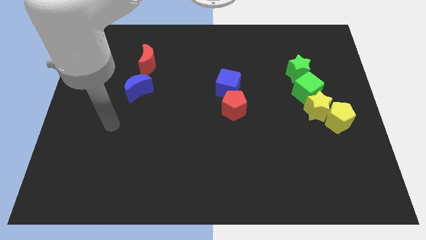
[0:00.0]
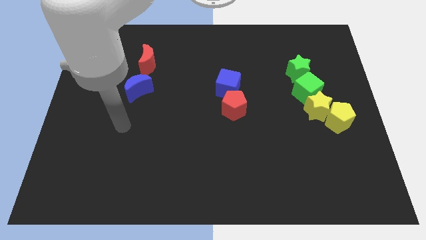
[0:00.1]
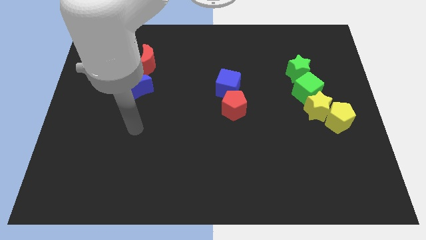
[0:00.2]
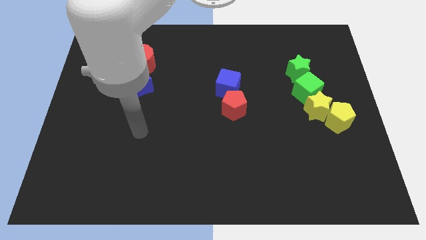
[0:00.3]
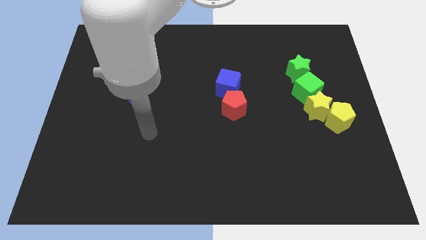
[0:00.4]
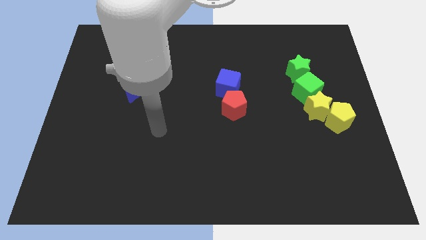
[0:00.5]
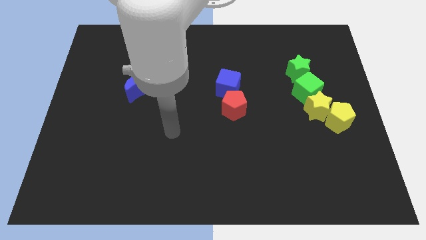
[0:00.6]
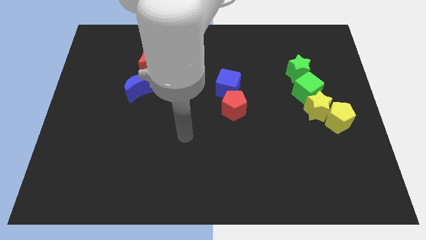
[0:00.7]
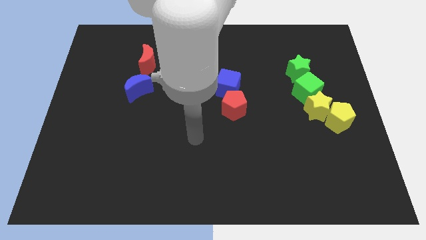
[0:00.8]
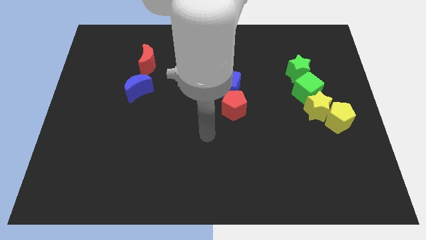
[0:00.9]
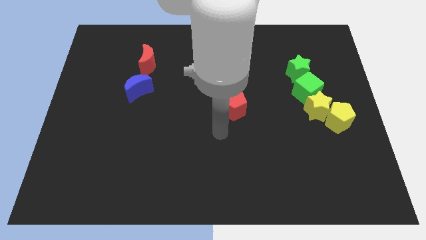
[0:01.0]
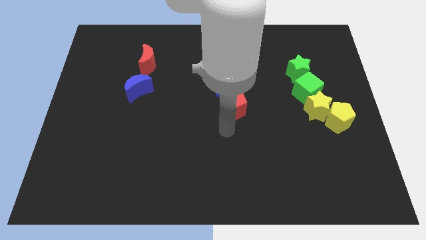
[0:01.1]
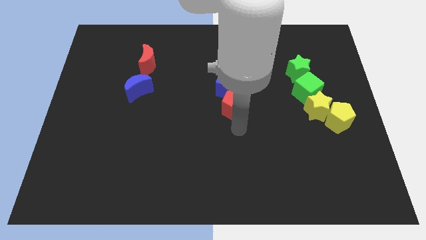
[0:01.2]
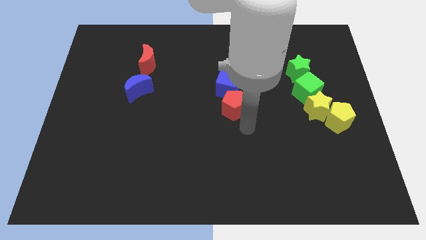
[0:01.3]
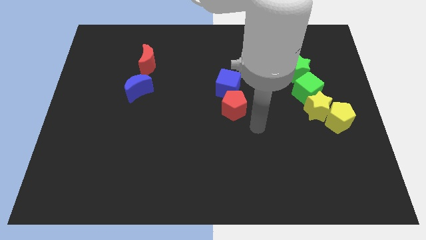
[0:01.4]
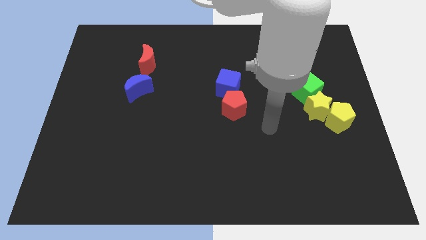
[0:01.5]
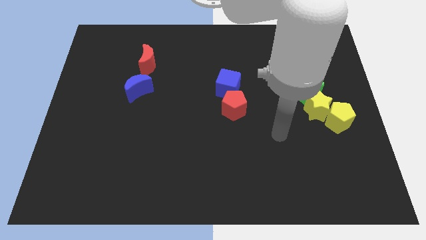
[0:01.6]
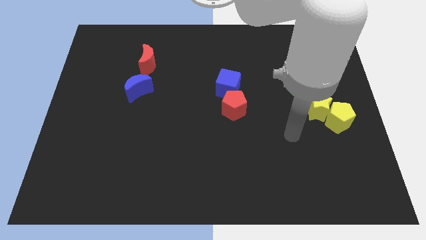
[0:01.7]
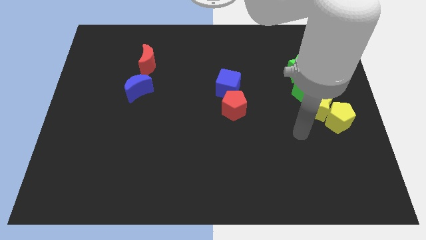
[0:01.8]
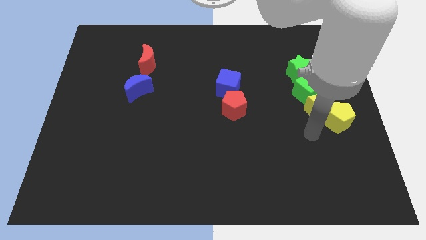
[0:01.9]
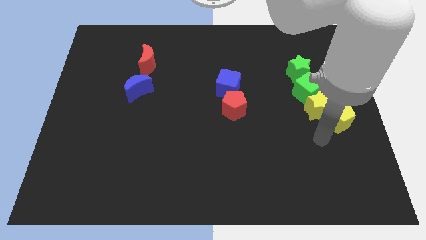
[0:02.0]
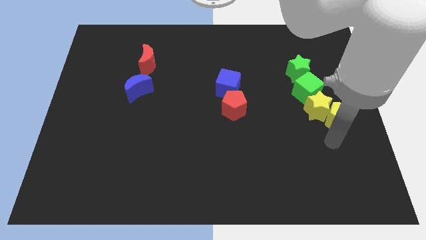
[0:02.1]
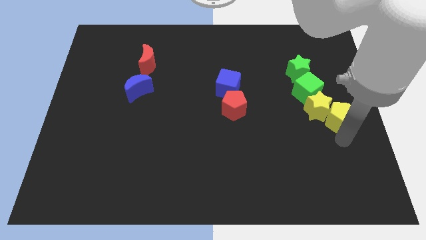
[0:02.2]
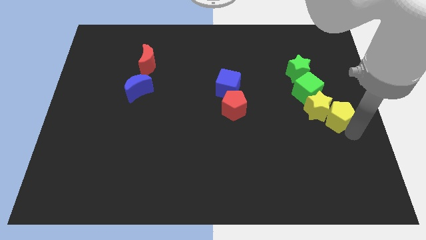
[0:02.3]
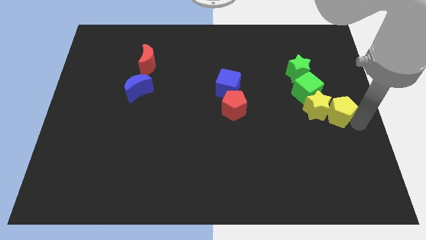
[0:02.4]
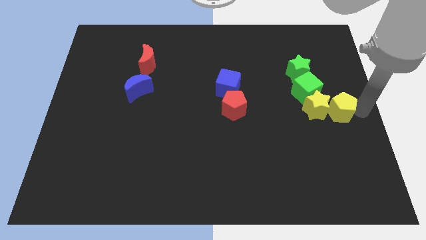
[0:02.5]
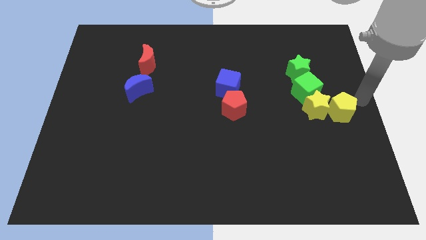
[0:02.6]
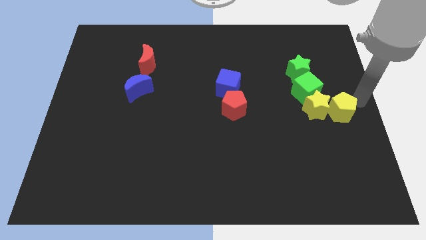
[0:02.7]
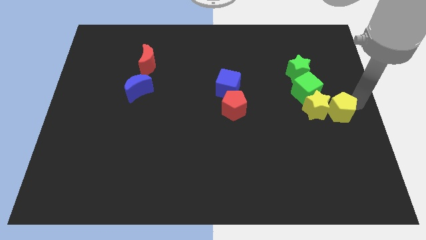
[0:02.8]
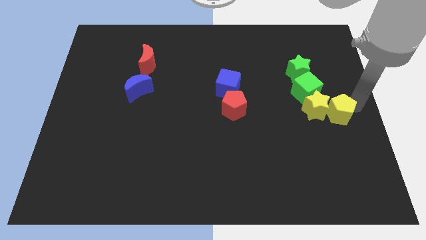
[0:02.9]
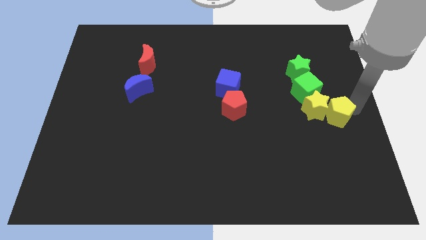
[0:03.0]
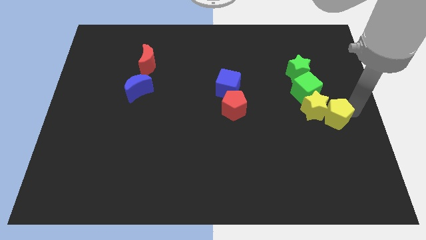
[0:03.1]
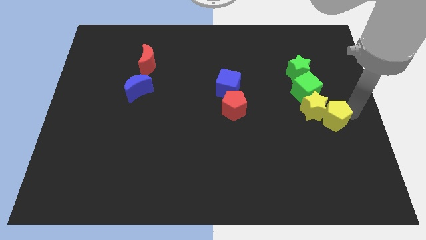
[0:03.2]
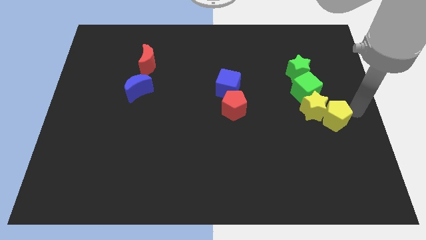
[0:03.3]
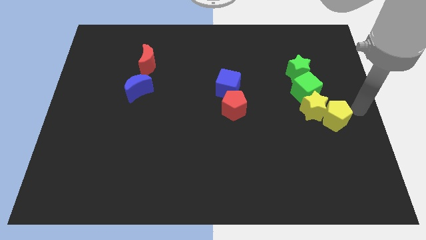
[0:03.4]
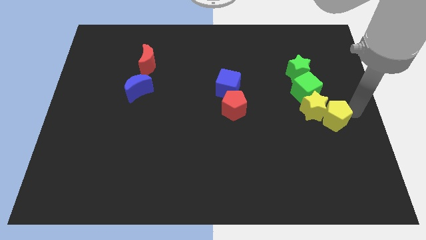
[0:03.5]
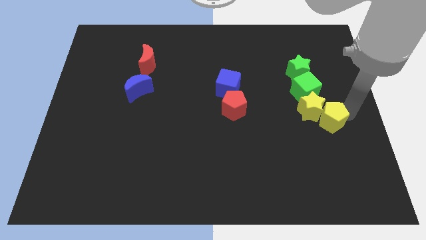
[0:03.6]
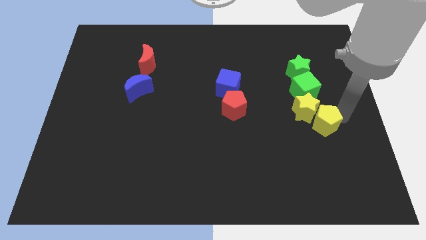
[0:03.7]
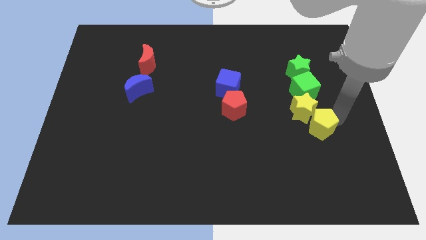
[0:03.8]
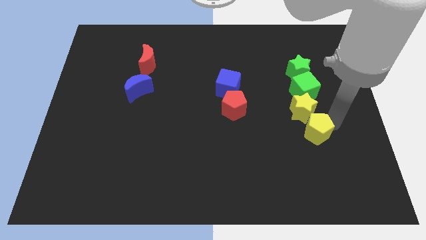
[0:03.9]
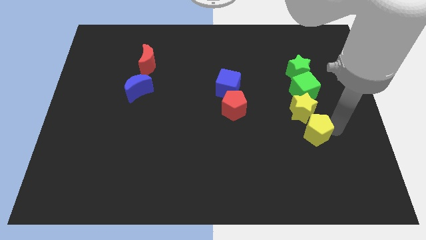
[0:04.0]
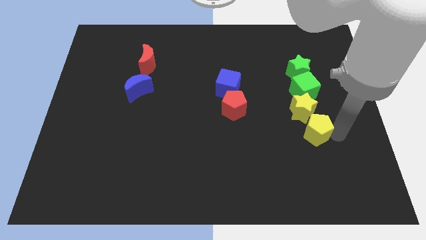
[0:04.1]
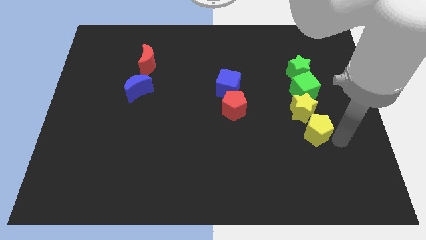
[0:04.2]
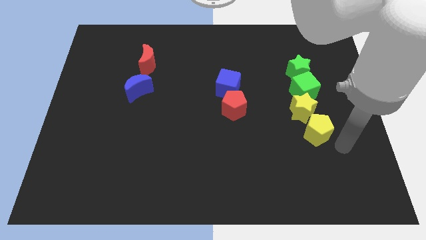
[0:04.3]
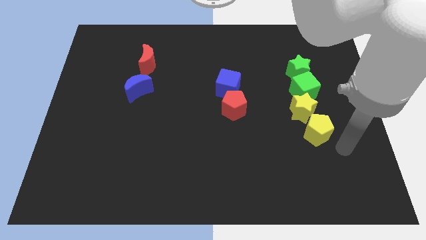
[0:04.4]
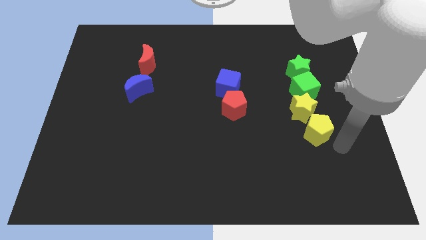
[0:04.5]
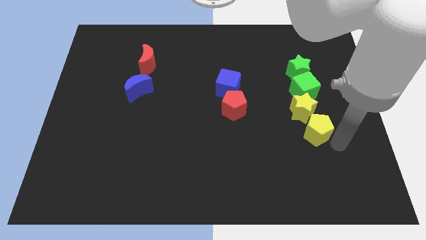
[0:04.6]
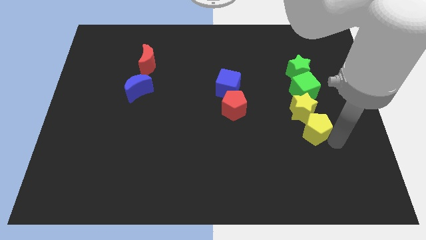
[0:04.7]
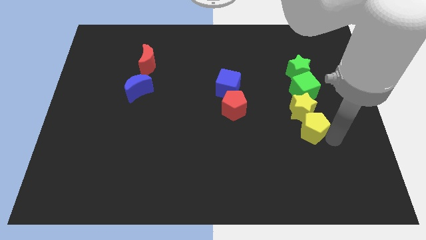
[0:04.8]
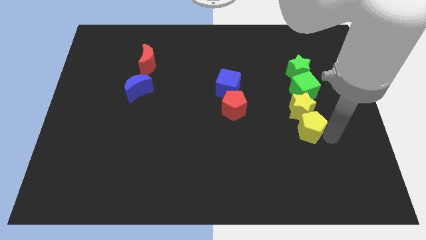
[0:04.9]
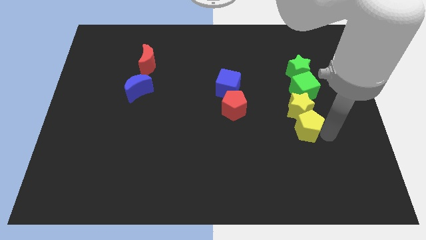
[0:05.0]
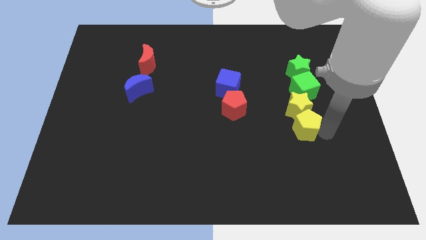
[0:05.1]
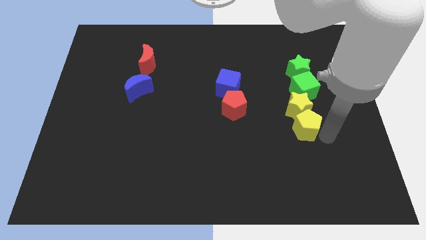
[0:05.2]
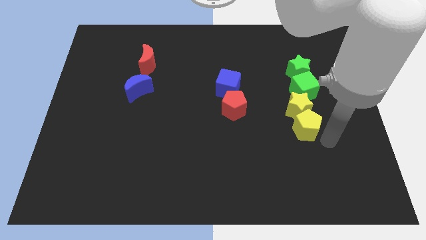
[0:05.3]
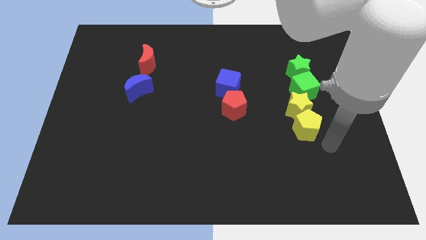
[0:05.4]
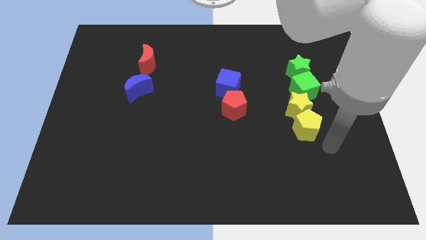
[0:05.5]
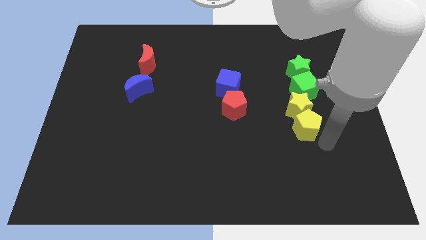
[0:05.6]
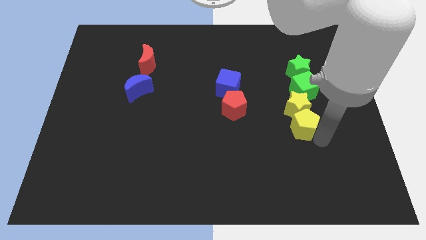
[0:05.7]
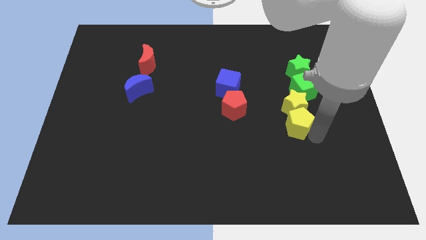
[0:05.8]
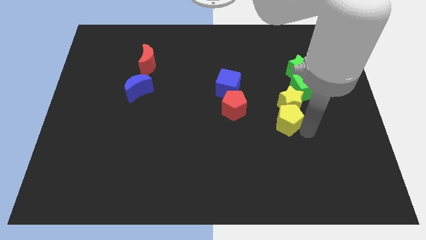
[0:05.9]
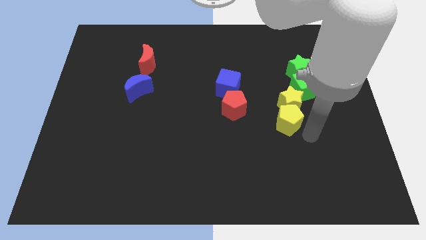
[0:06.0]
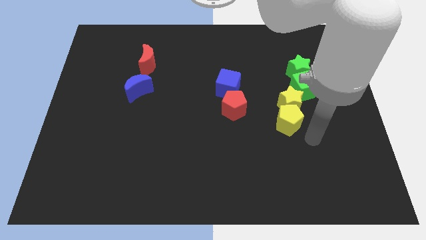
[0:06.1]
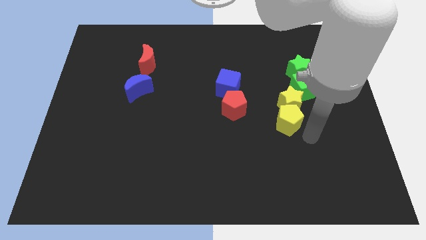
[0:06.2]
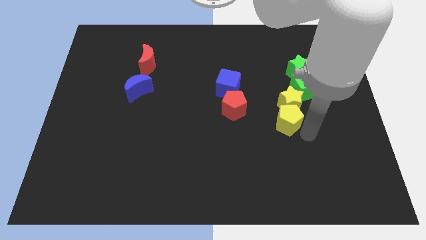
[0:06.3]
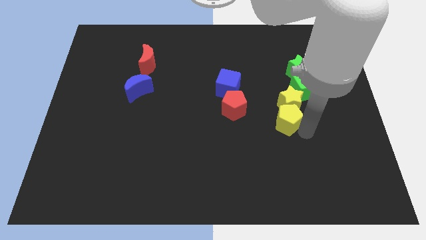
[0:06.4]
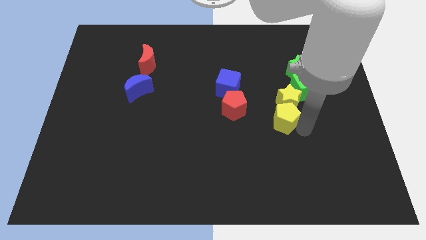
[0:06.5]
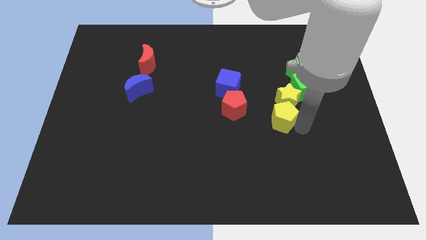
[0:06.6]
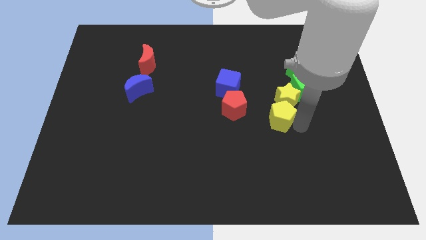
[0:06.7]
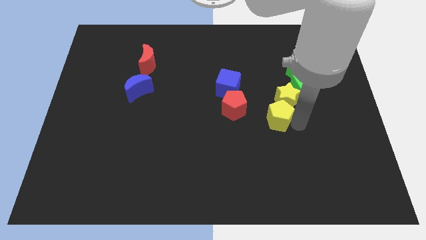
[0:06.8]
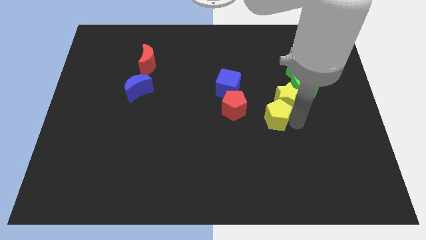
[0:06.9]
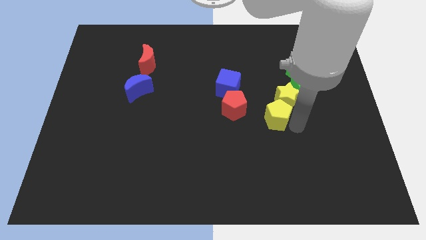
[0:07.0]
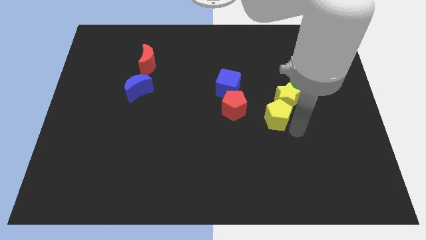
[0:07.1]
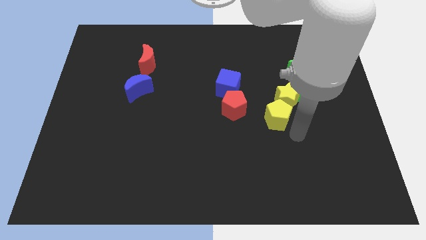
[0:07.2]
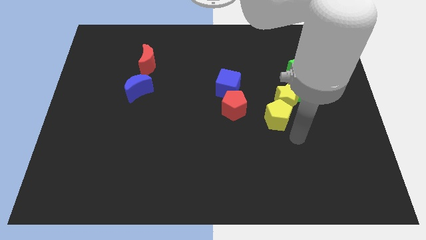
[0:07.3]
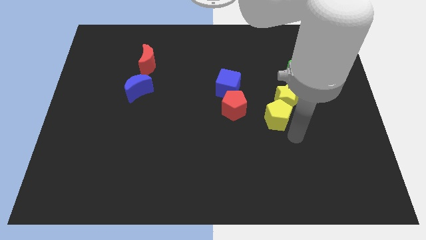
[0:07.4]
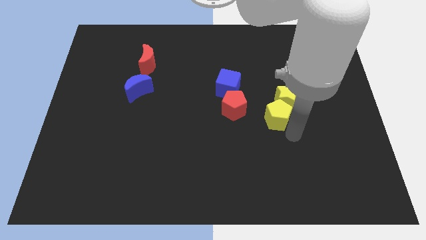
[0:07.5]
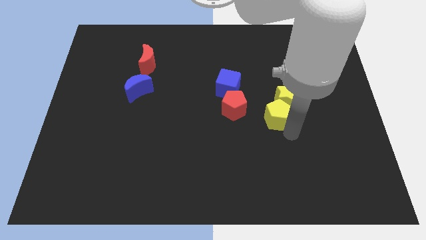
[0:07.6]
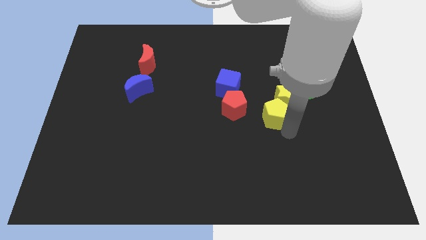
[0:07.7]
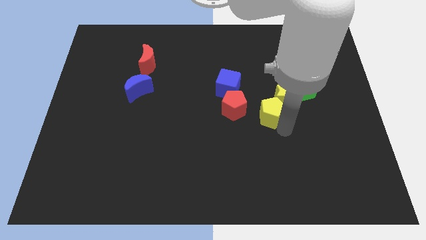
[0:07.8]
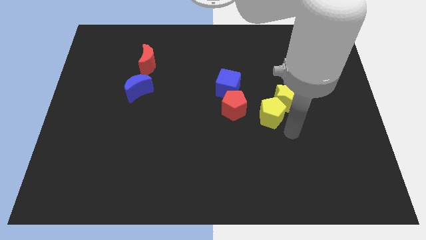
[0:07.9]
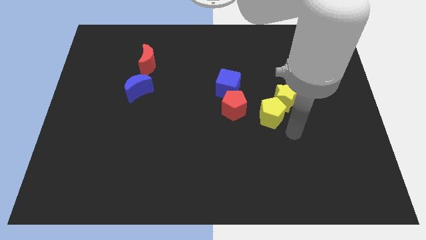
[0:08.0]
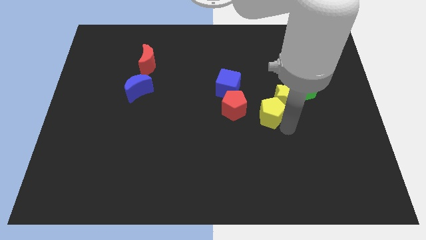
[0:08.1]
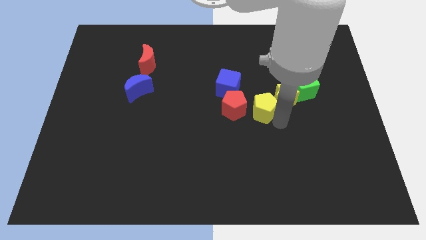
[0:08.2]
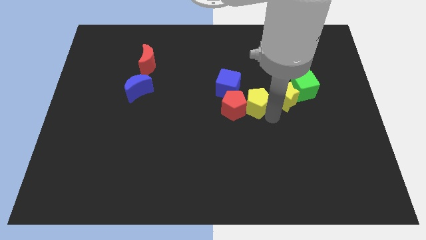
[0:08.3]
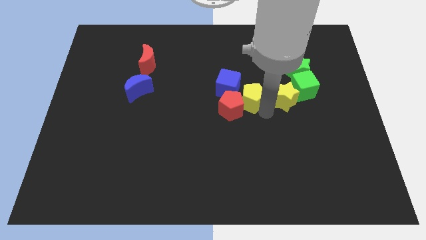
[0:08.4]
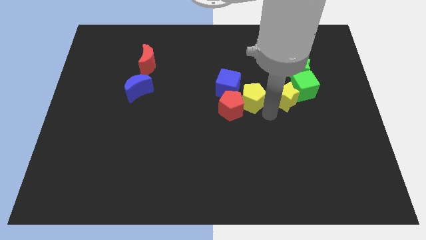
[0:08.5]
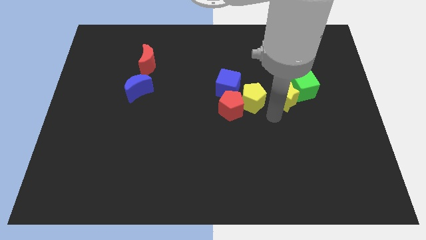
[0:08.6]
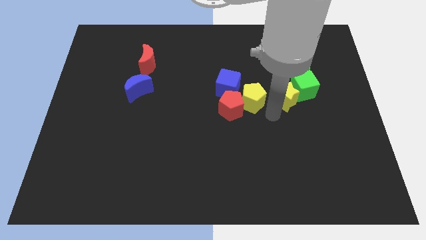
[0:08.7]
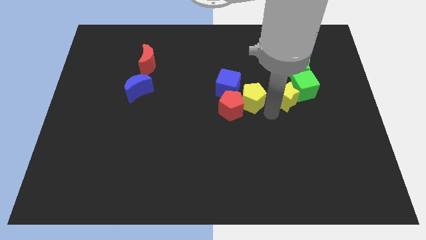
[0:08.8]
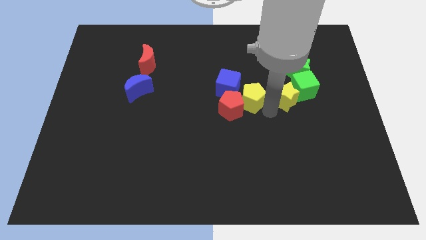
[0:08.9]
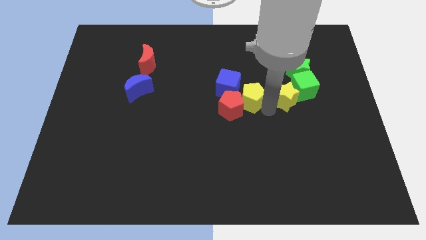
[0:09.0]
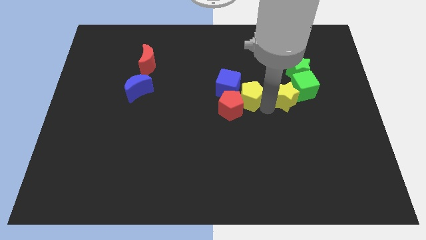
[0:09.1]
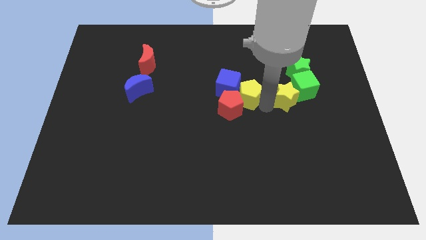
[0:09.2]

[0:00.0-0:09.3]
put the yellow pentagon next to the blue cube
